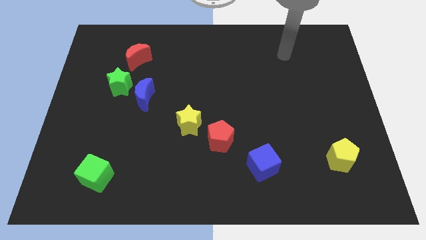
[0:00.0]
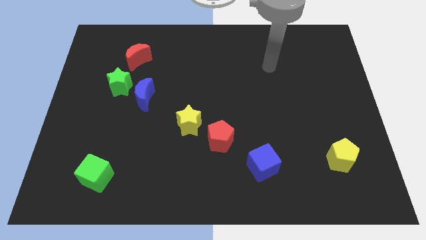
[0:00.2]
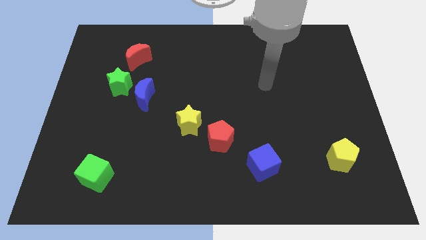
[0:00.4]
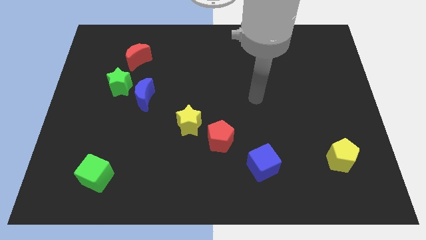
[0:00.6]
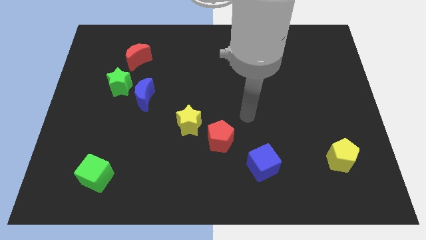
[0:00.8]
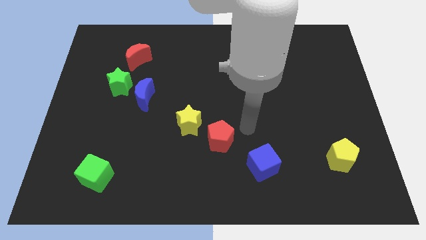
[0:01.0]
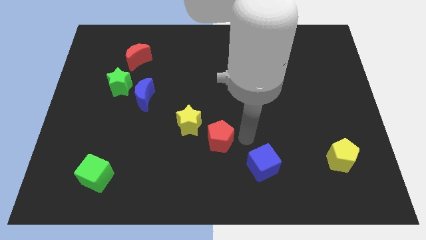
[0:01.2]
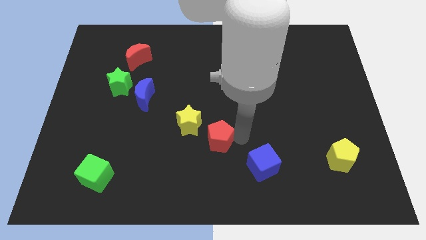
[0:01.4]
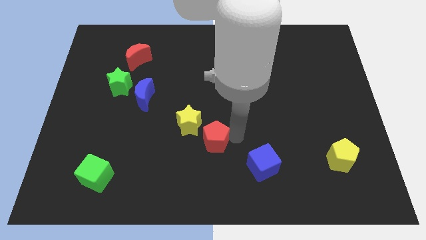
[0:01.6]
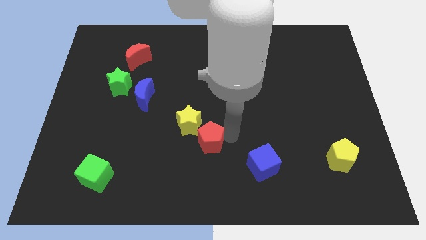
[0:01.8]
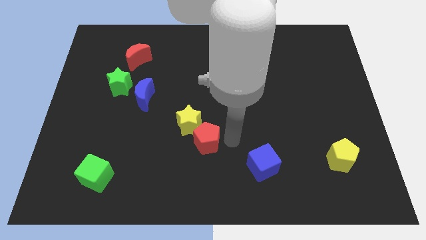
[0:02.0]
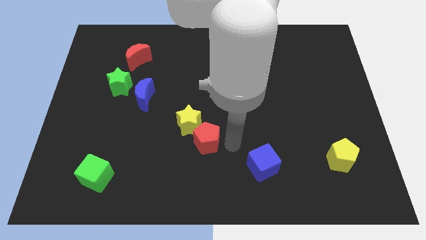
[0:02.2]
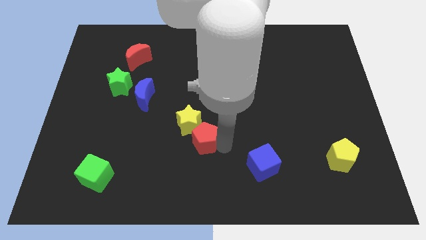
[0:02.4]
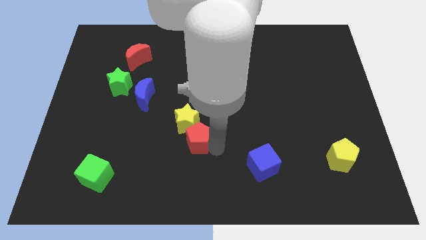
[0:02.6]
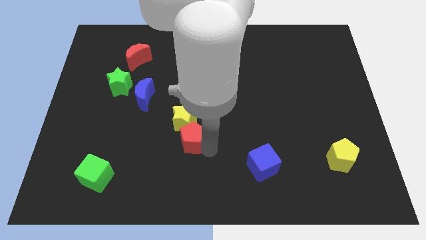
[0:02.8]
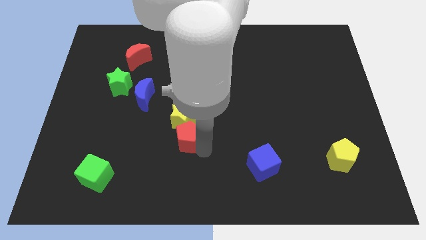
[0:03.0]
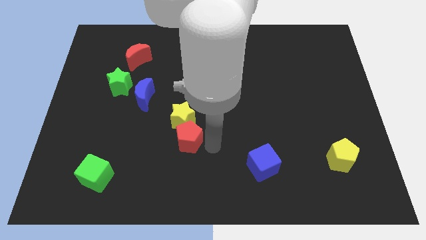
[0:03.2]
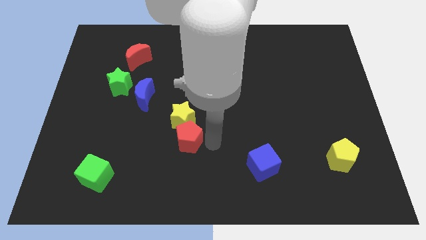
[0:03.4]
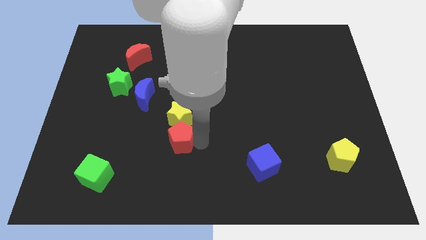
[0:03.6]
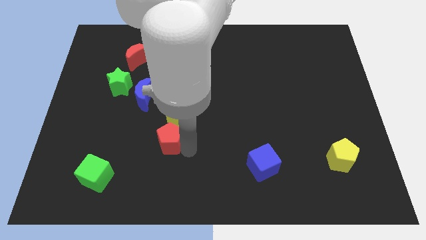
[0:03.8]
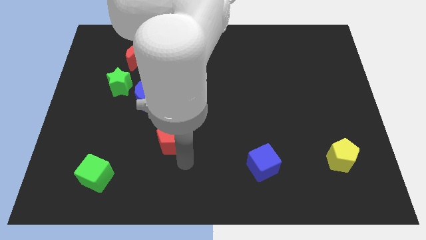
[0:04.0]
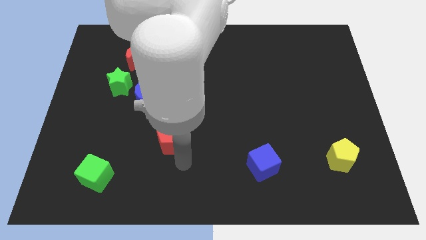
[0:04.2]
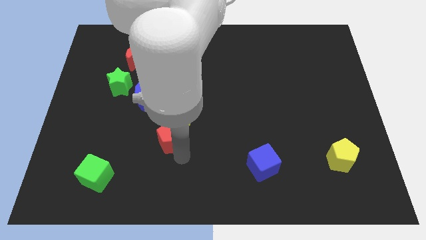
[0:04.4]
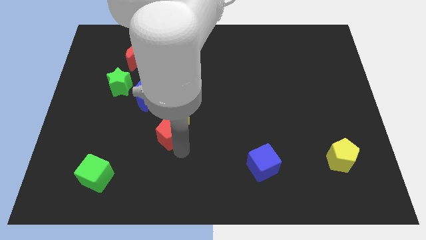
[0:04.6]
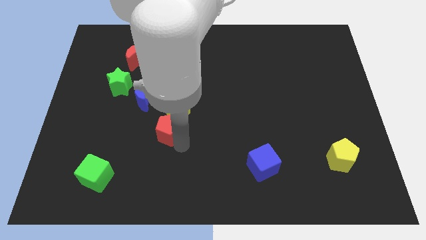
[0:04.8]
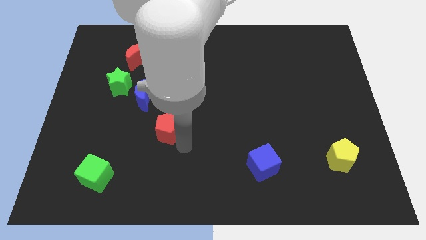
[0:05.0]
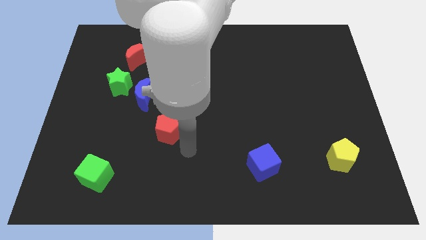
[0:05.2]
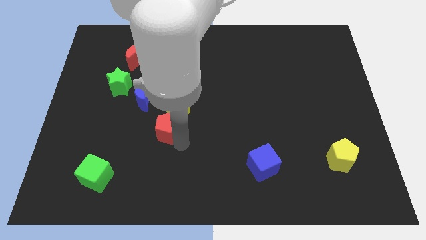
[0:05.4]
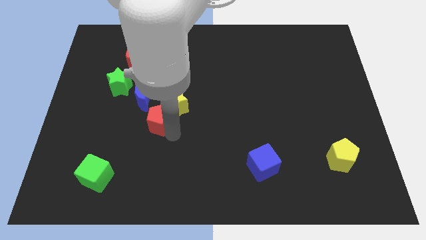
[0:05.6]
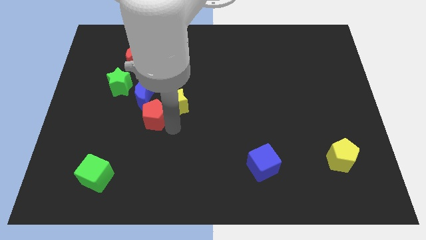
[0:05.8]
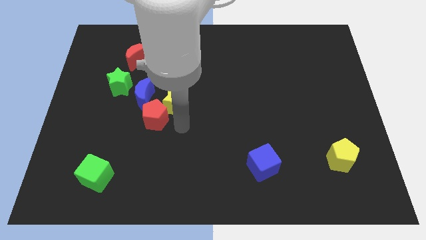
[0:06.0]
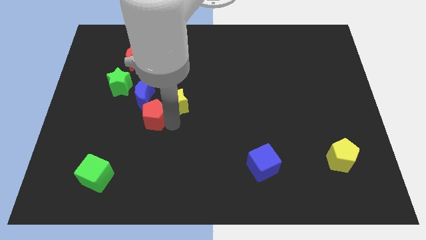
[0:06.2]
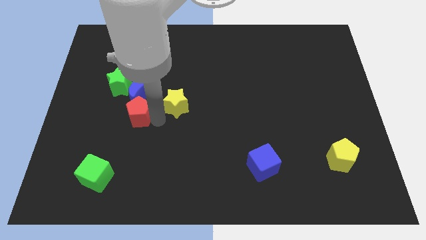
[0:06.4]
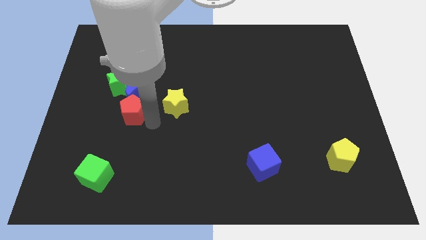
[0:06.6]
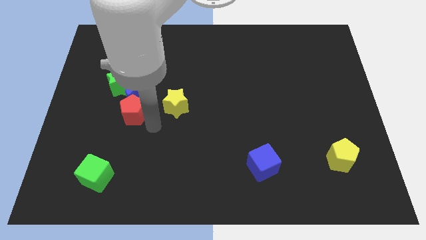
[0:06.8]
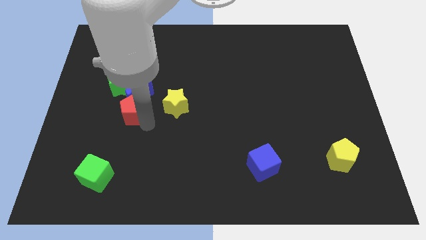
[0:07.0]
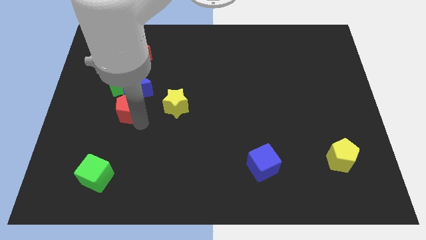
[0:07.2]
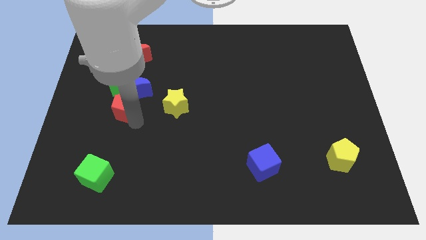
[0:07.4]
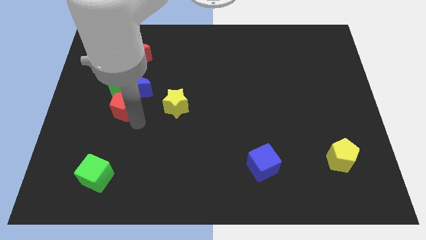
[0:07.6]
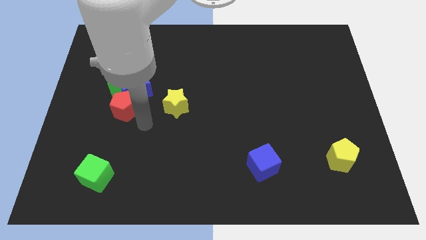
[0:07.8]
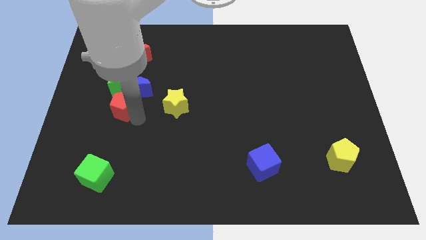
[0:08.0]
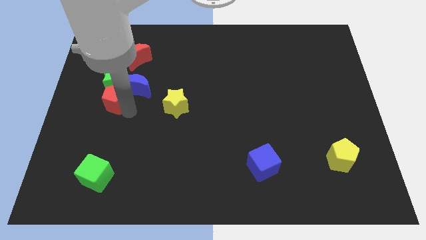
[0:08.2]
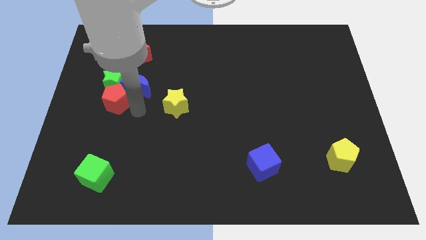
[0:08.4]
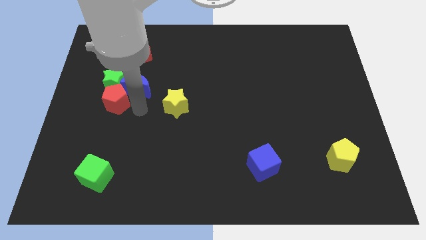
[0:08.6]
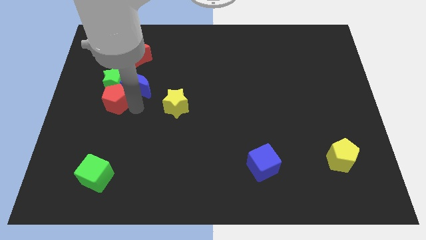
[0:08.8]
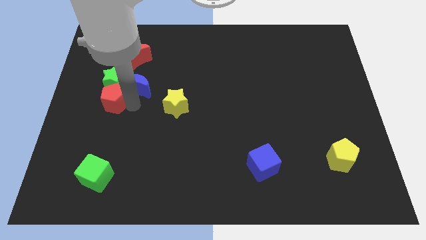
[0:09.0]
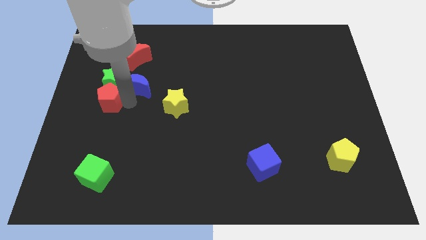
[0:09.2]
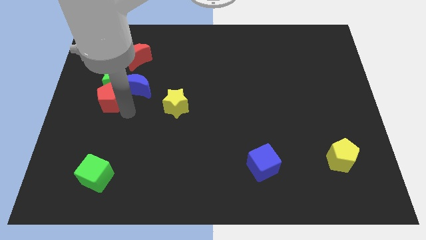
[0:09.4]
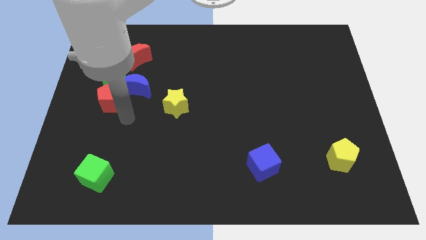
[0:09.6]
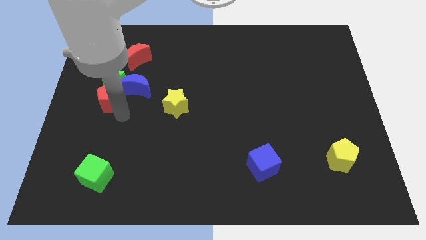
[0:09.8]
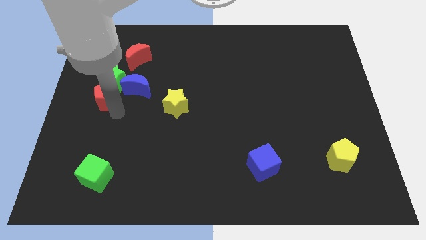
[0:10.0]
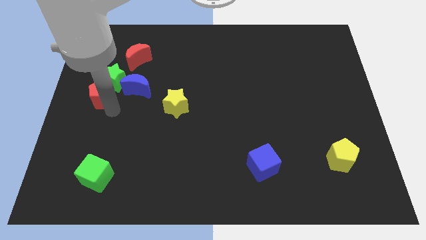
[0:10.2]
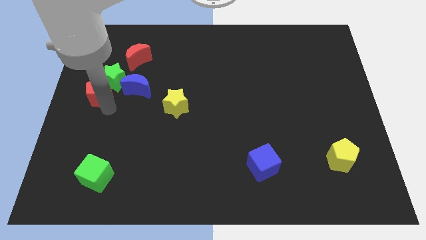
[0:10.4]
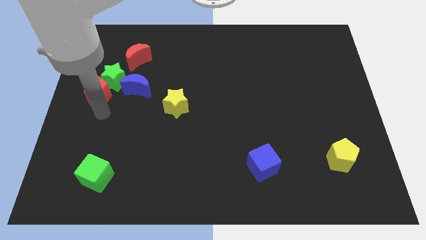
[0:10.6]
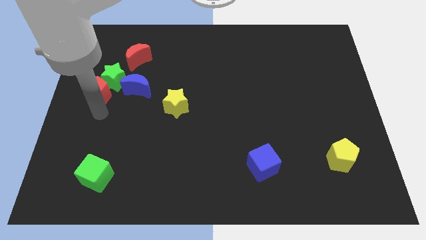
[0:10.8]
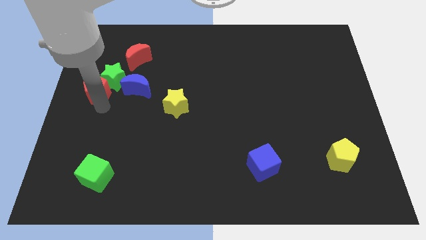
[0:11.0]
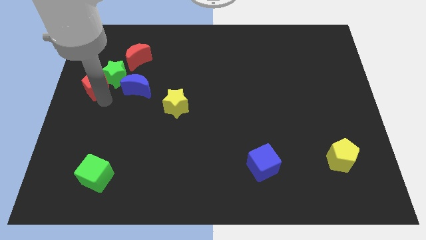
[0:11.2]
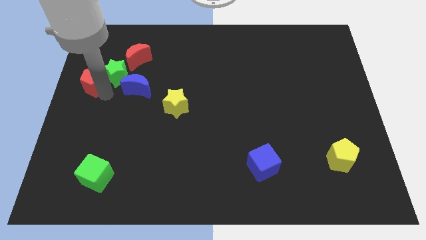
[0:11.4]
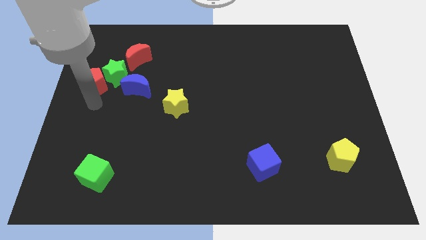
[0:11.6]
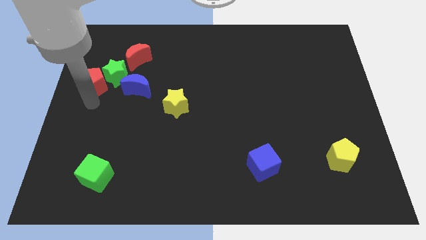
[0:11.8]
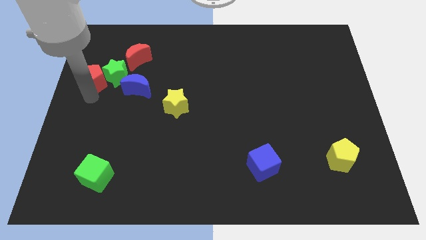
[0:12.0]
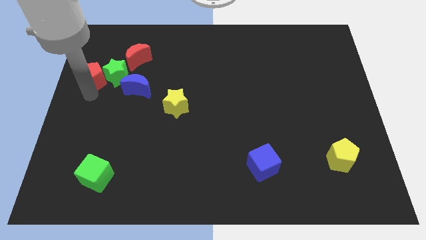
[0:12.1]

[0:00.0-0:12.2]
push the red pentagon to the top left side of the green star

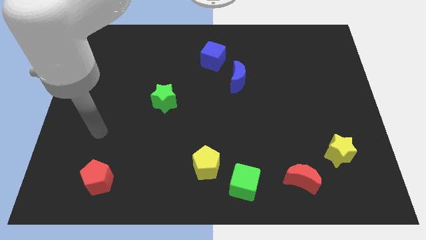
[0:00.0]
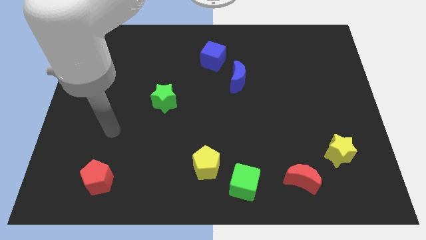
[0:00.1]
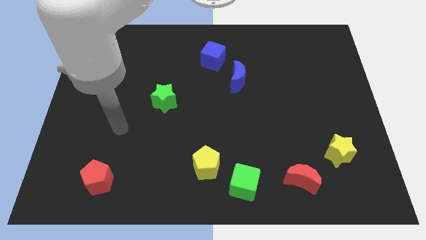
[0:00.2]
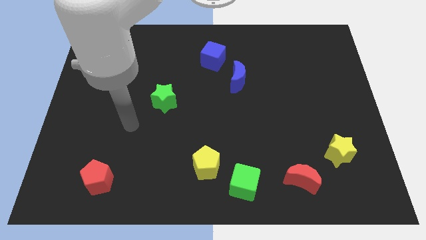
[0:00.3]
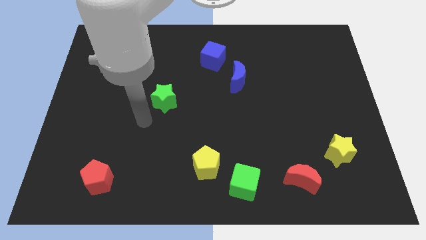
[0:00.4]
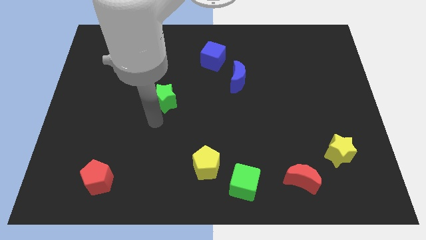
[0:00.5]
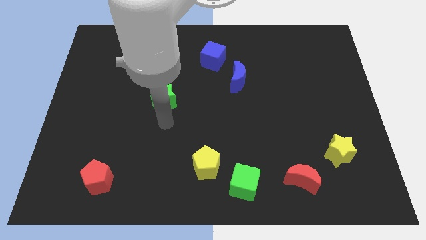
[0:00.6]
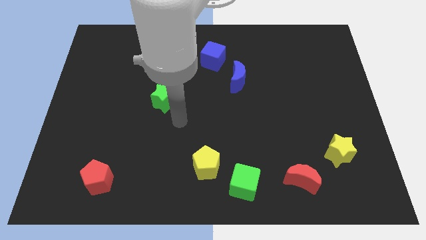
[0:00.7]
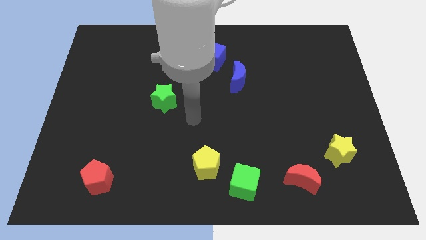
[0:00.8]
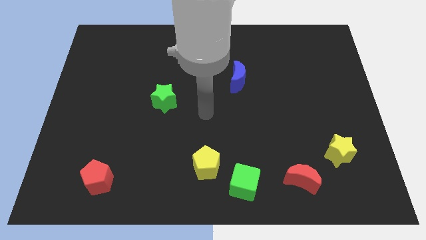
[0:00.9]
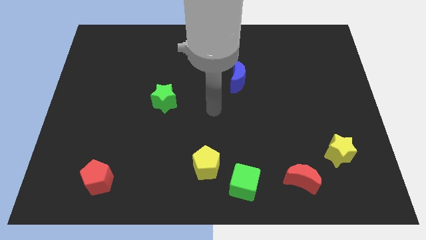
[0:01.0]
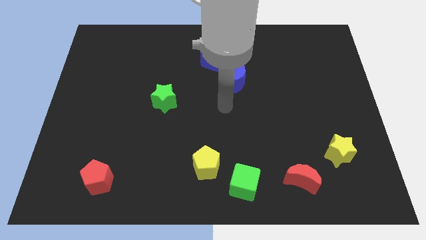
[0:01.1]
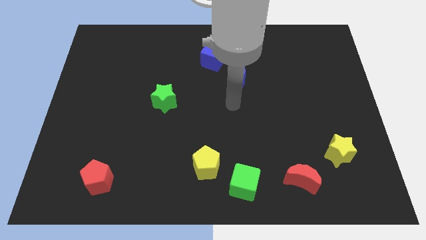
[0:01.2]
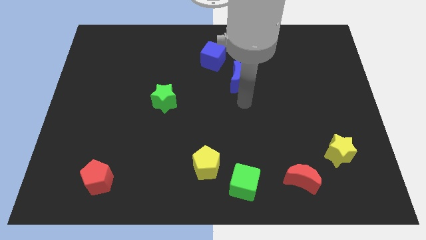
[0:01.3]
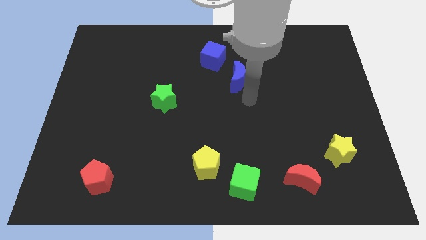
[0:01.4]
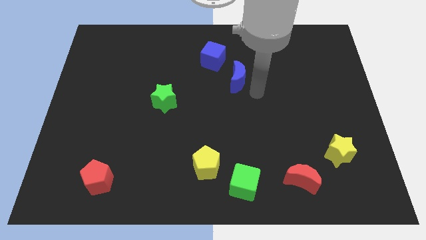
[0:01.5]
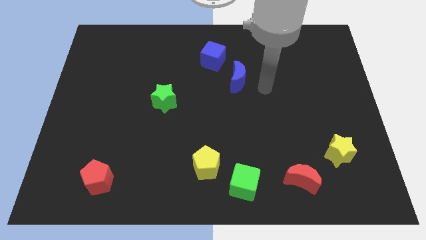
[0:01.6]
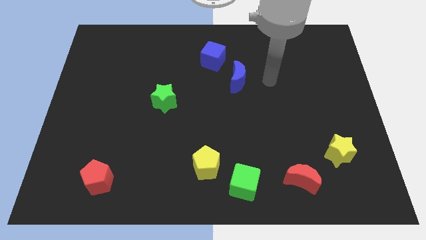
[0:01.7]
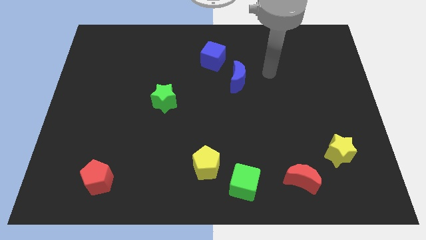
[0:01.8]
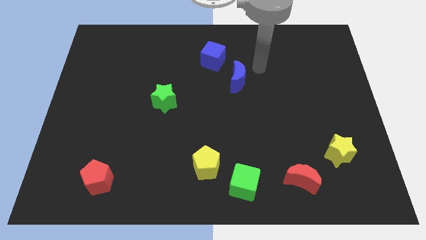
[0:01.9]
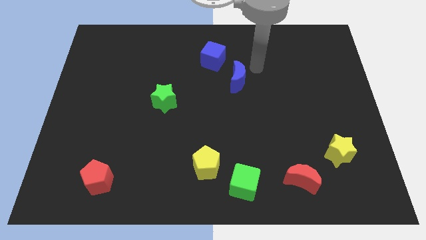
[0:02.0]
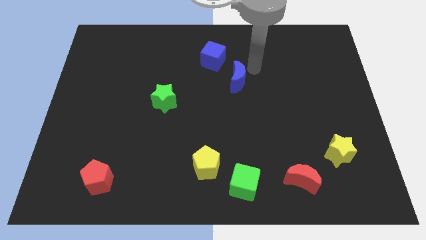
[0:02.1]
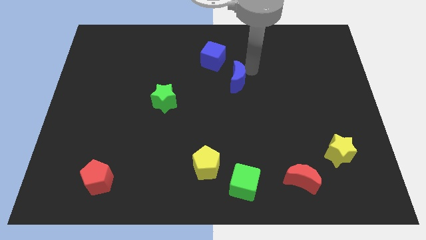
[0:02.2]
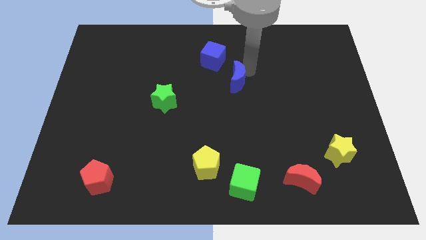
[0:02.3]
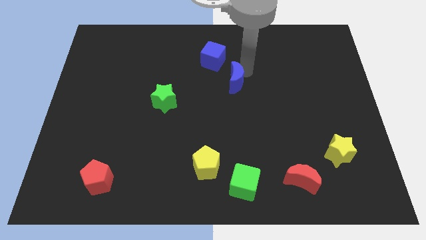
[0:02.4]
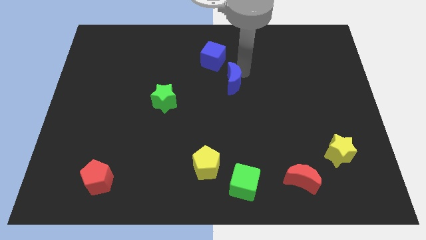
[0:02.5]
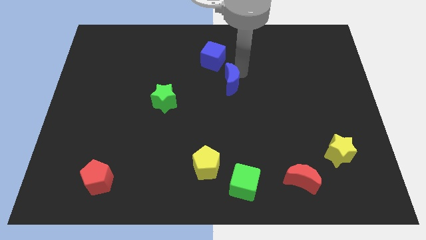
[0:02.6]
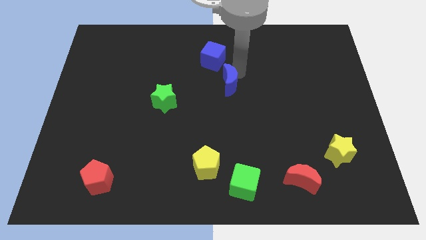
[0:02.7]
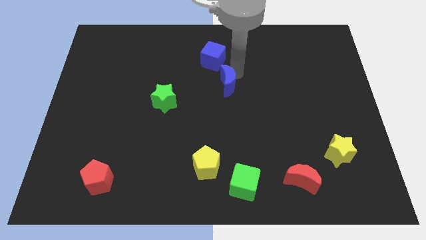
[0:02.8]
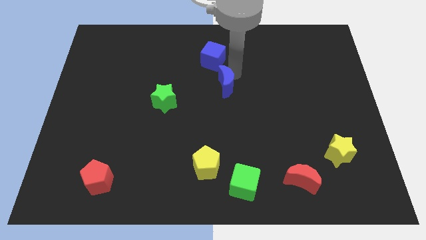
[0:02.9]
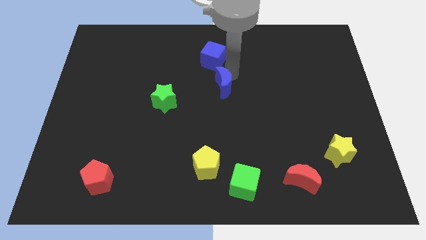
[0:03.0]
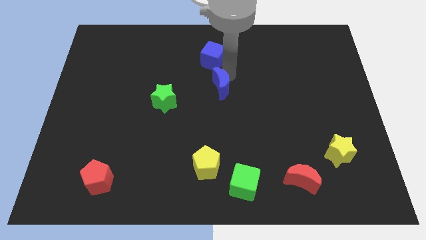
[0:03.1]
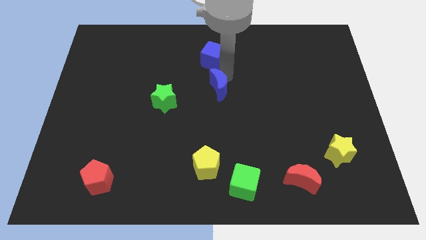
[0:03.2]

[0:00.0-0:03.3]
push the blue moon to the right of the green star
